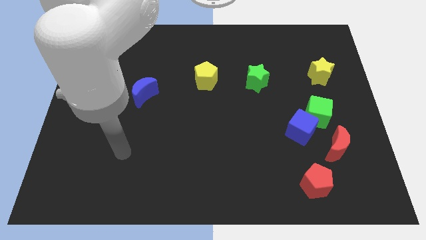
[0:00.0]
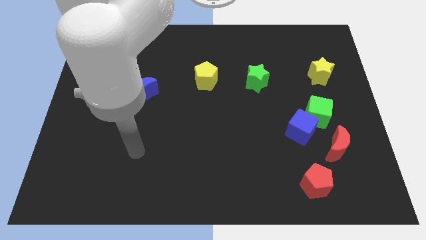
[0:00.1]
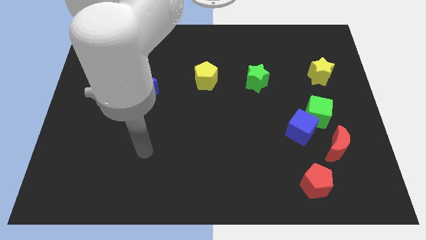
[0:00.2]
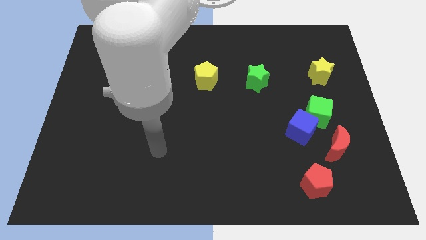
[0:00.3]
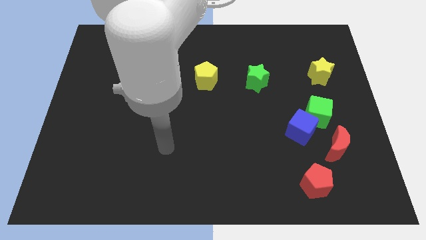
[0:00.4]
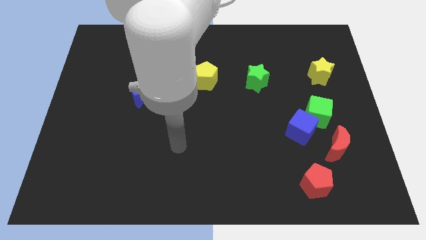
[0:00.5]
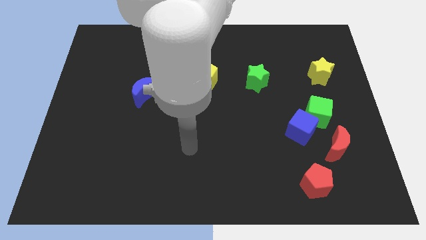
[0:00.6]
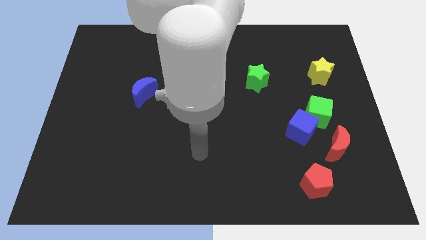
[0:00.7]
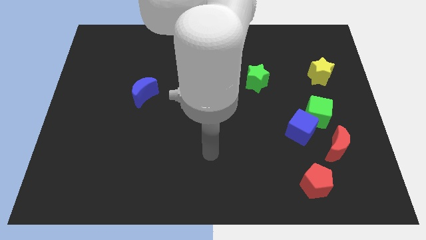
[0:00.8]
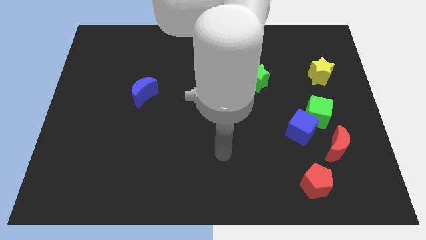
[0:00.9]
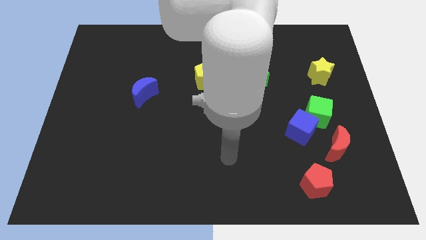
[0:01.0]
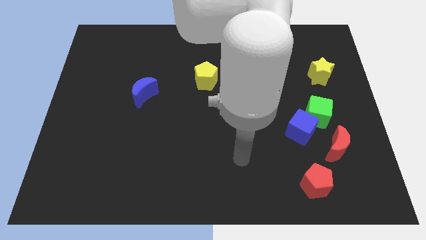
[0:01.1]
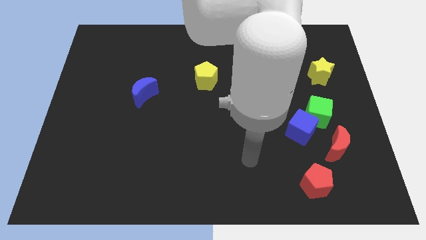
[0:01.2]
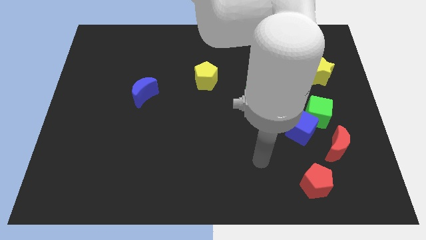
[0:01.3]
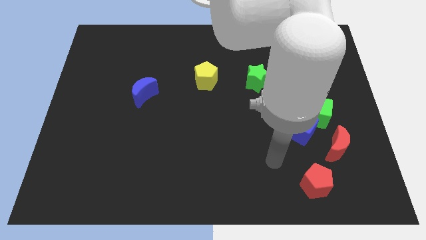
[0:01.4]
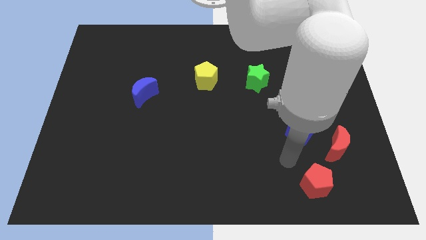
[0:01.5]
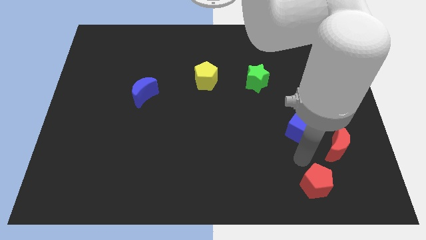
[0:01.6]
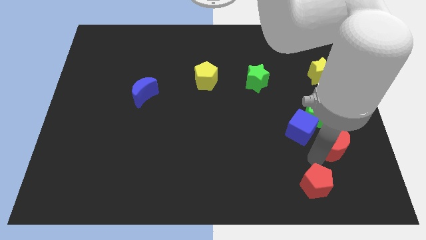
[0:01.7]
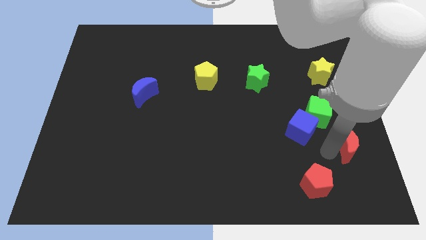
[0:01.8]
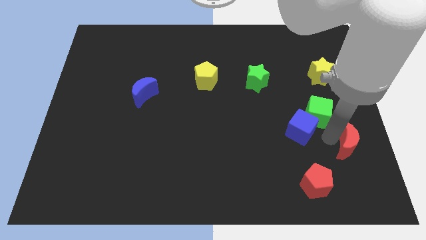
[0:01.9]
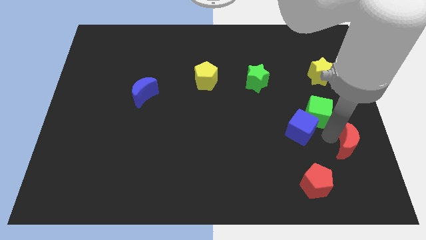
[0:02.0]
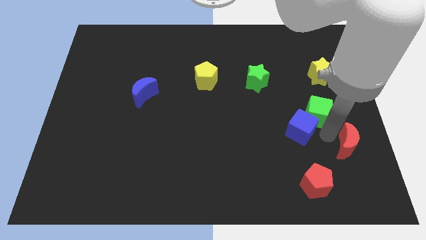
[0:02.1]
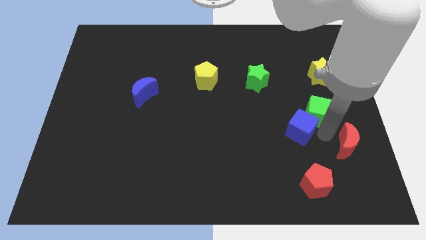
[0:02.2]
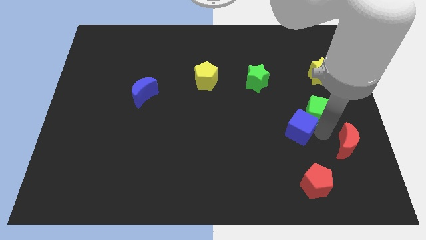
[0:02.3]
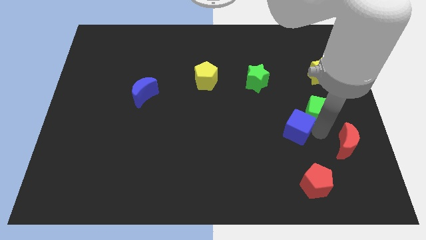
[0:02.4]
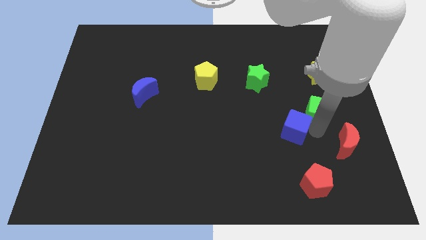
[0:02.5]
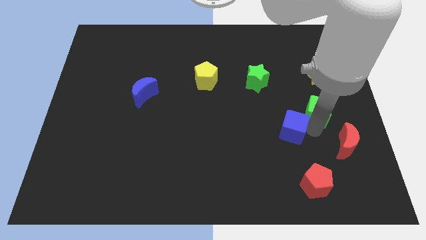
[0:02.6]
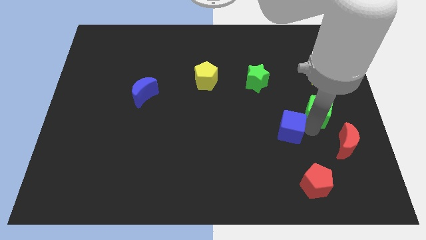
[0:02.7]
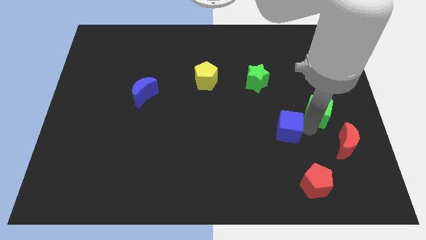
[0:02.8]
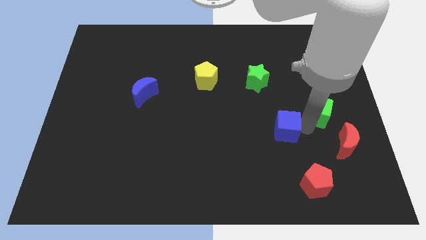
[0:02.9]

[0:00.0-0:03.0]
move the blue cube away from the green cube and red moon

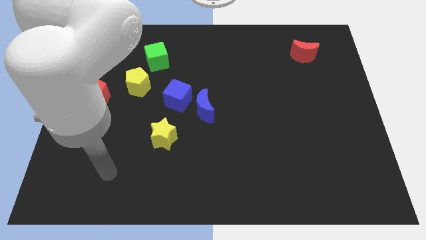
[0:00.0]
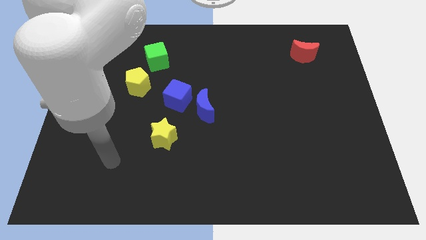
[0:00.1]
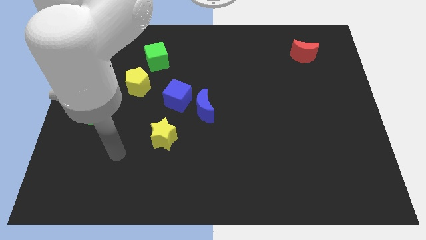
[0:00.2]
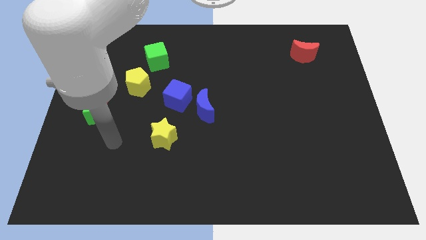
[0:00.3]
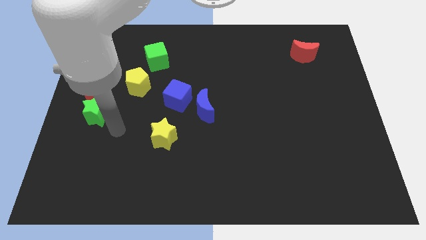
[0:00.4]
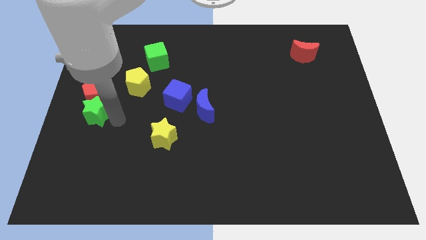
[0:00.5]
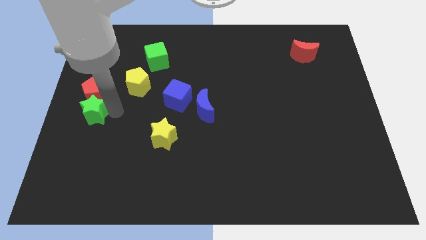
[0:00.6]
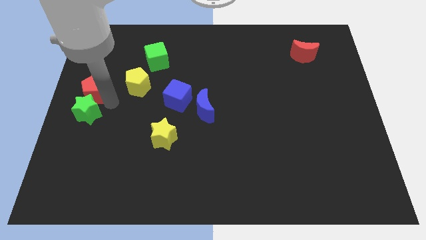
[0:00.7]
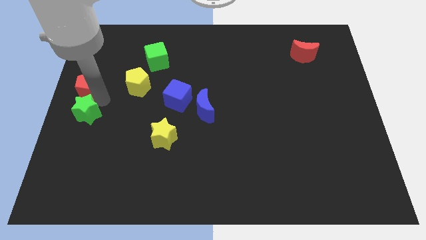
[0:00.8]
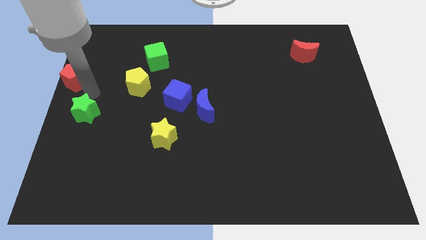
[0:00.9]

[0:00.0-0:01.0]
move the green star away from the red pentagon

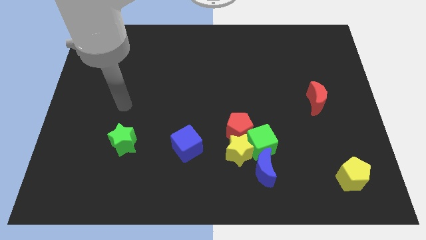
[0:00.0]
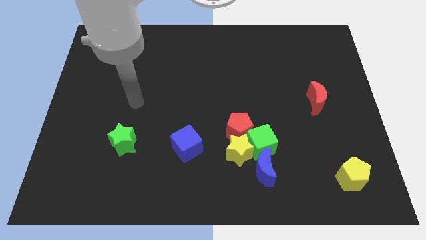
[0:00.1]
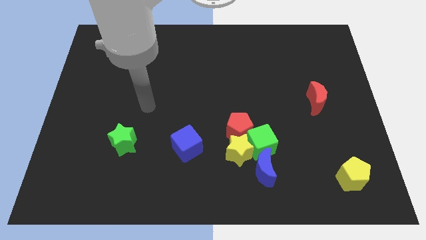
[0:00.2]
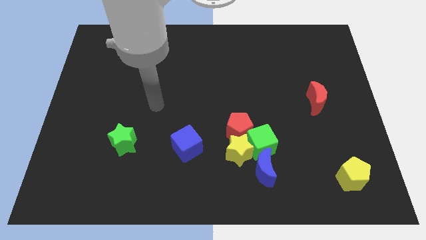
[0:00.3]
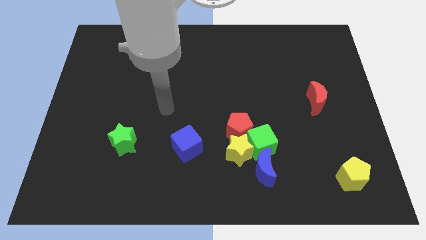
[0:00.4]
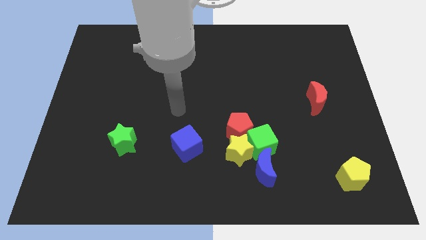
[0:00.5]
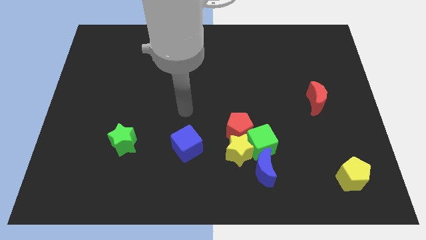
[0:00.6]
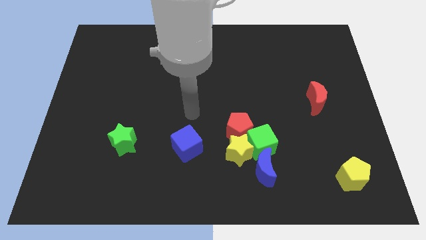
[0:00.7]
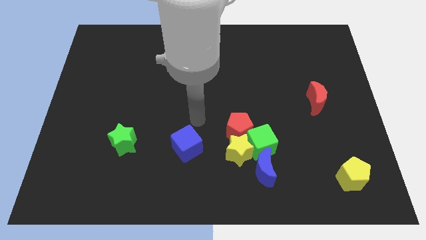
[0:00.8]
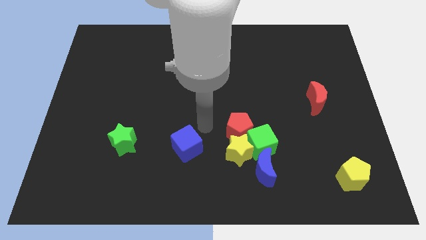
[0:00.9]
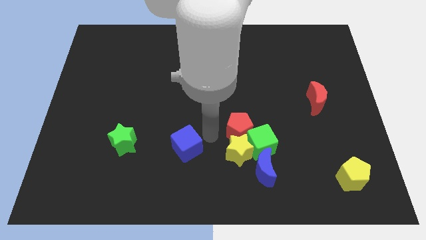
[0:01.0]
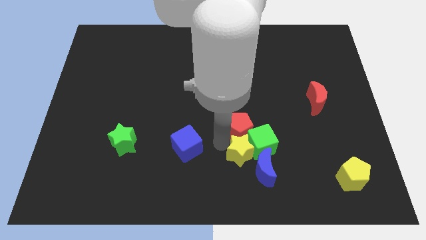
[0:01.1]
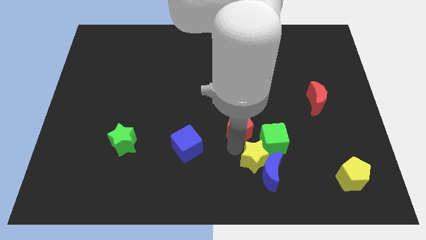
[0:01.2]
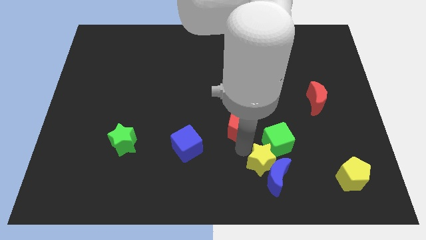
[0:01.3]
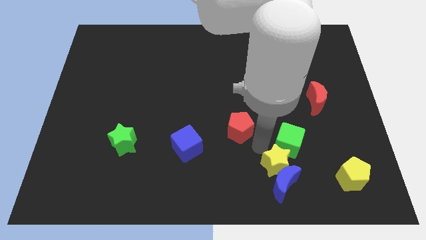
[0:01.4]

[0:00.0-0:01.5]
move the red pentagon away from the yellow star and green cube

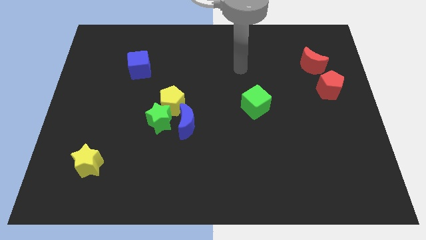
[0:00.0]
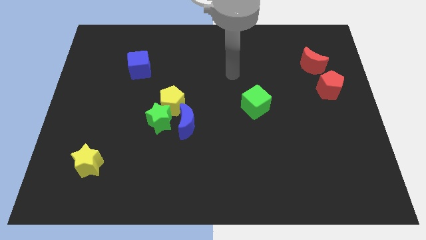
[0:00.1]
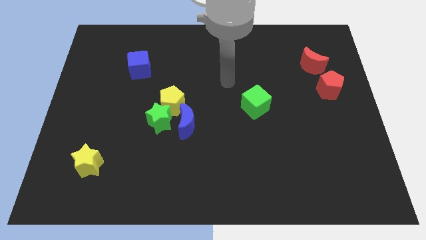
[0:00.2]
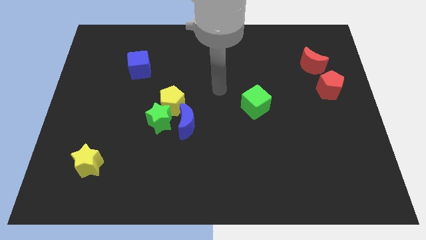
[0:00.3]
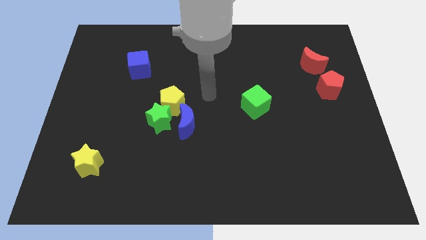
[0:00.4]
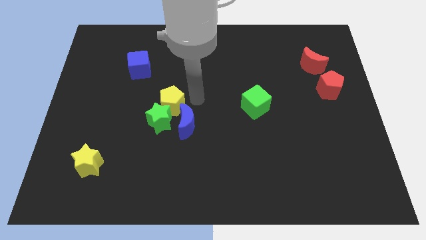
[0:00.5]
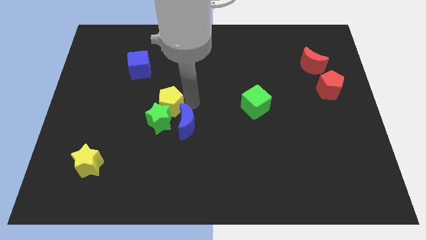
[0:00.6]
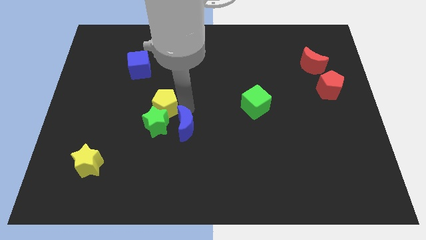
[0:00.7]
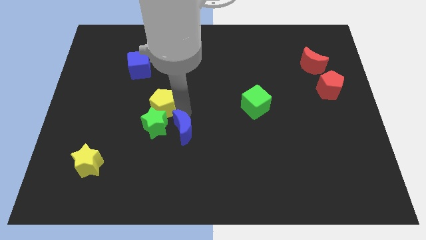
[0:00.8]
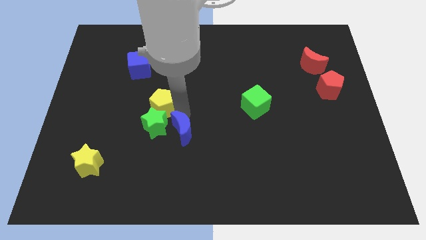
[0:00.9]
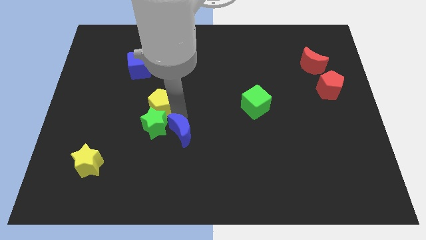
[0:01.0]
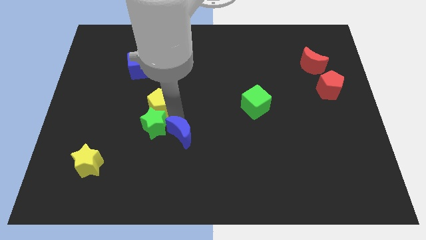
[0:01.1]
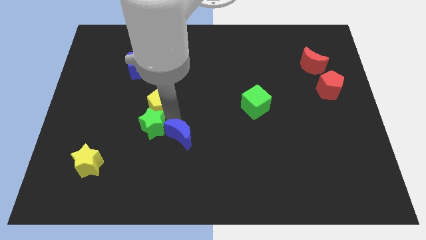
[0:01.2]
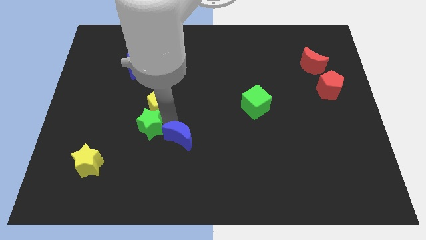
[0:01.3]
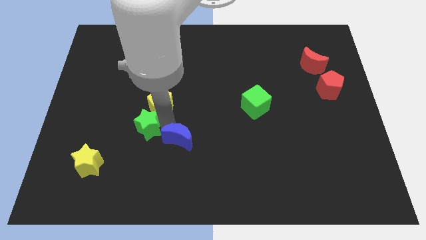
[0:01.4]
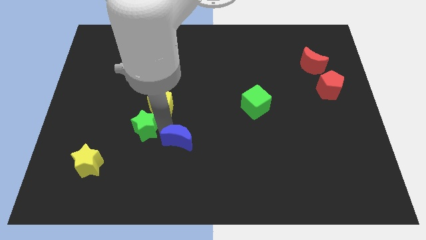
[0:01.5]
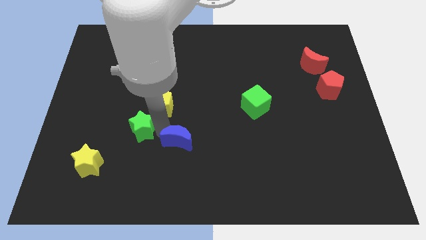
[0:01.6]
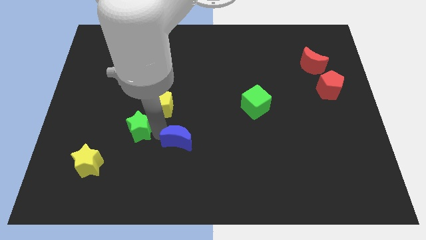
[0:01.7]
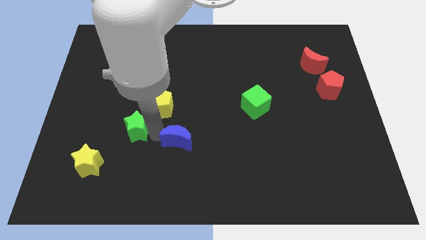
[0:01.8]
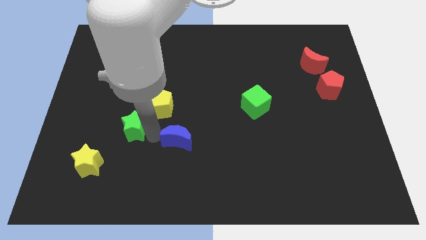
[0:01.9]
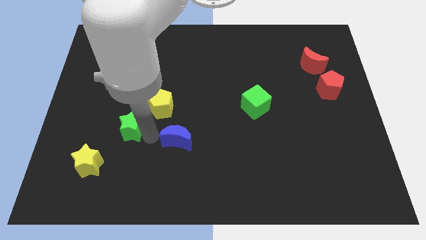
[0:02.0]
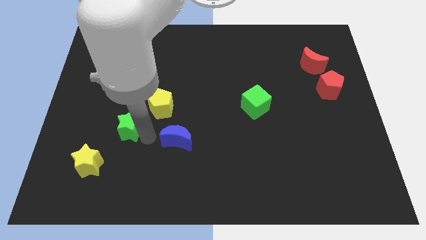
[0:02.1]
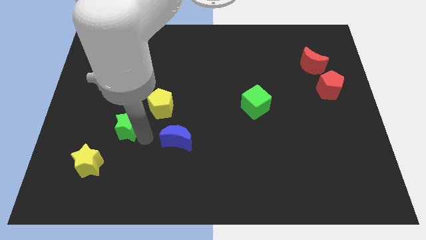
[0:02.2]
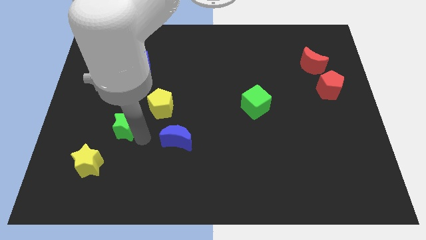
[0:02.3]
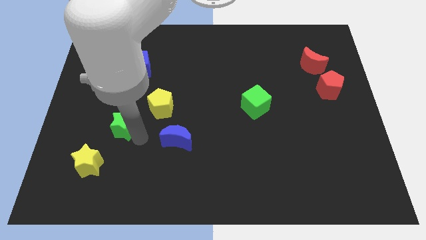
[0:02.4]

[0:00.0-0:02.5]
move the green star away from the yellow pentagon and blue moon

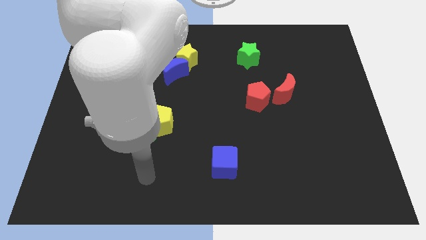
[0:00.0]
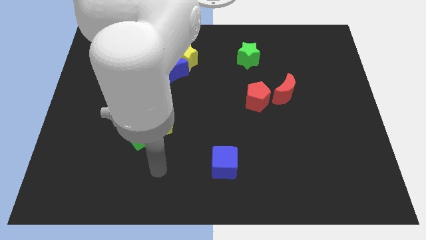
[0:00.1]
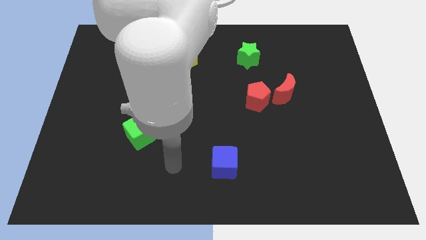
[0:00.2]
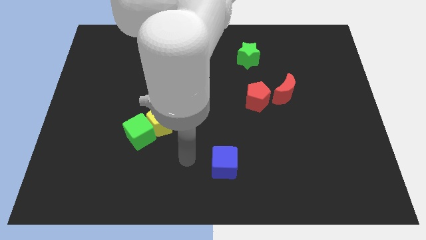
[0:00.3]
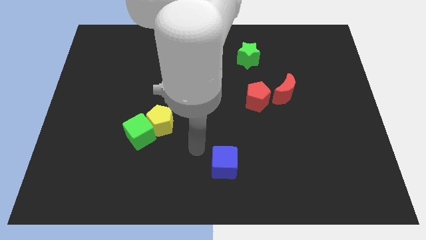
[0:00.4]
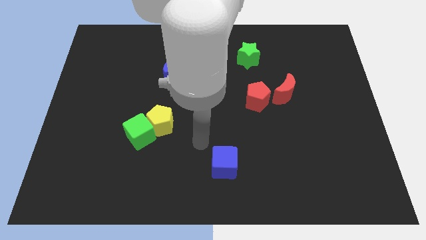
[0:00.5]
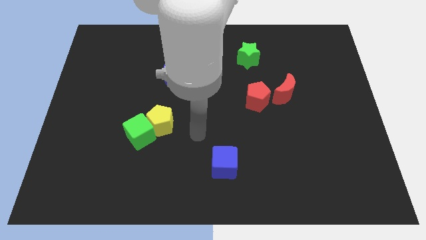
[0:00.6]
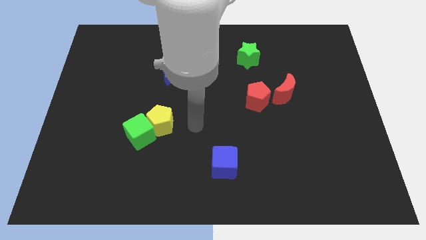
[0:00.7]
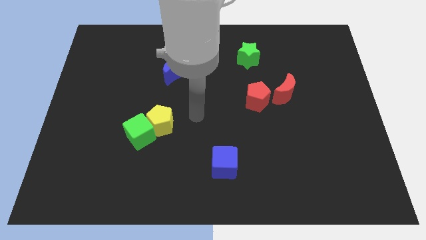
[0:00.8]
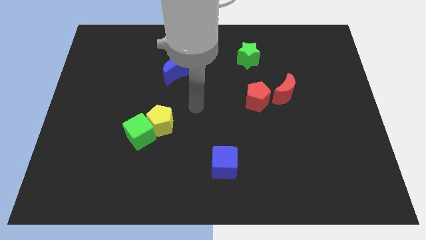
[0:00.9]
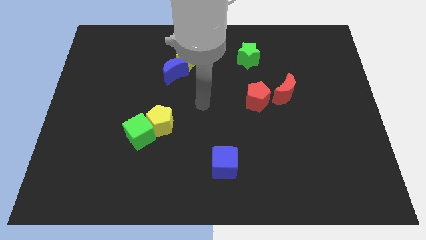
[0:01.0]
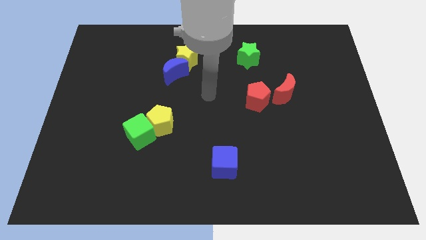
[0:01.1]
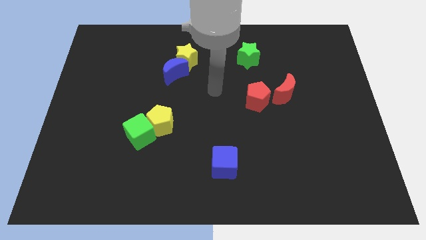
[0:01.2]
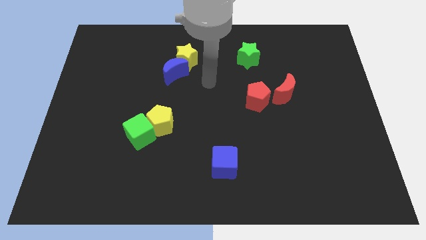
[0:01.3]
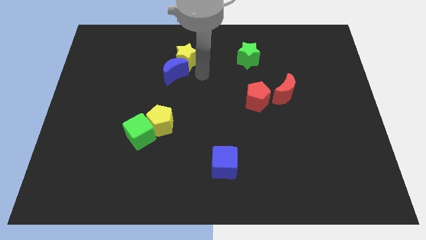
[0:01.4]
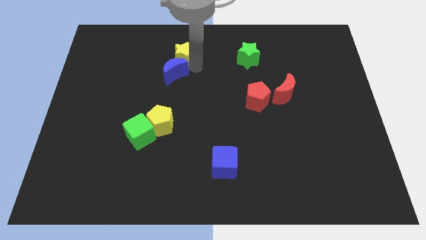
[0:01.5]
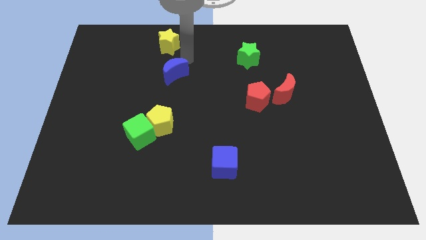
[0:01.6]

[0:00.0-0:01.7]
pull the blue moon apart from the yellow star
